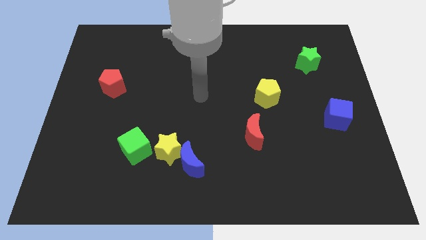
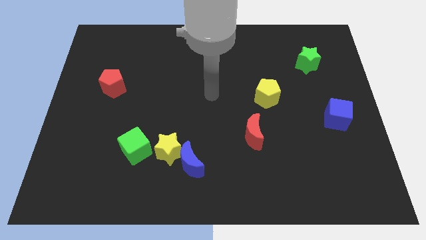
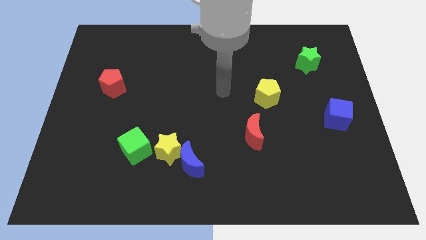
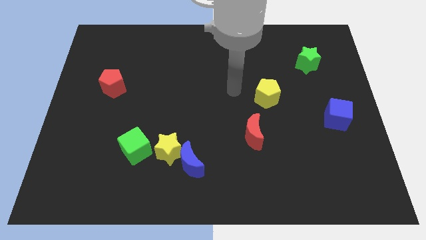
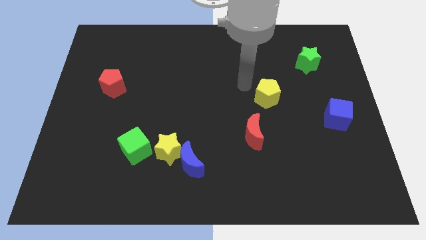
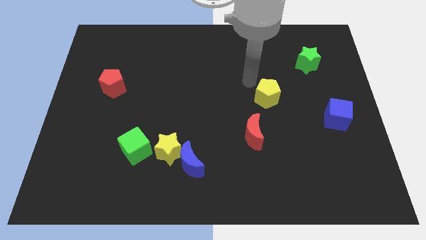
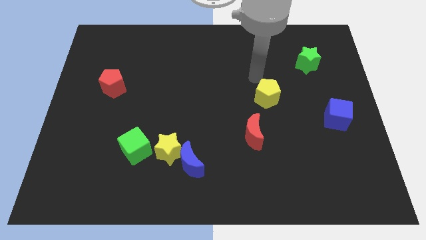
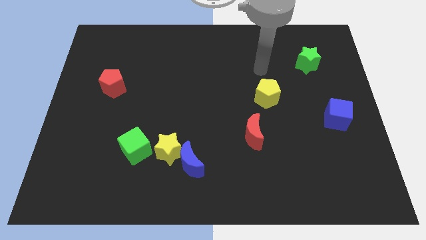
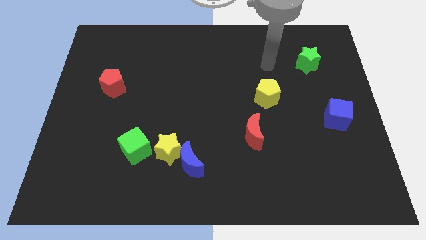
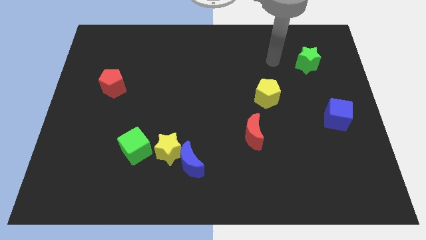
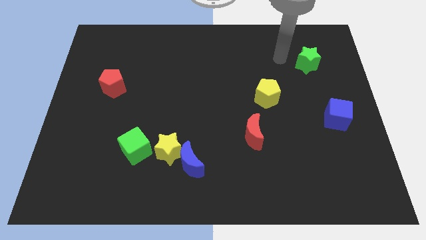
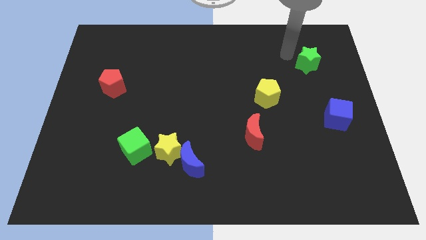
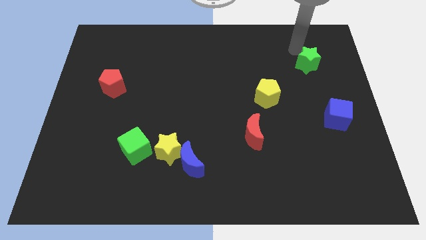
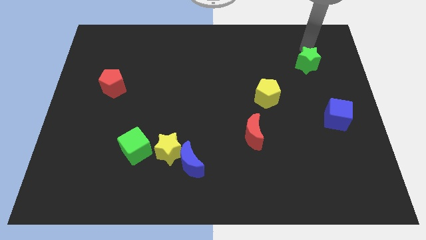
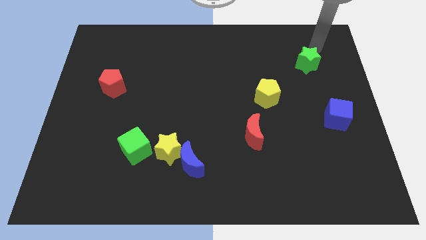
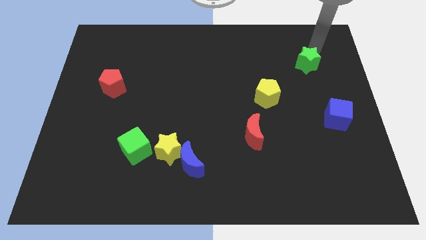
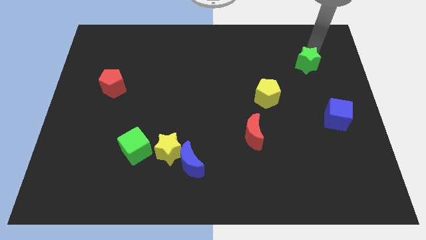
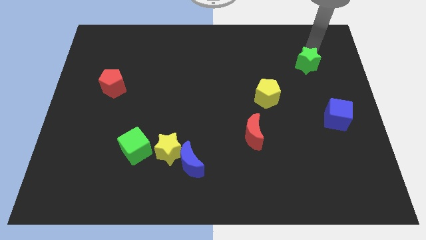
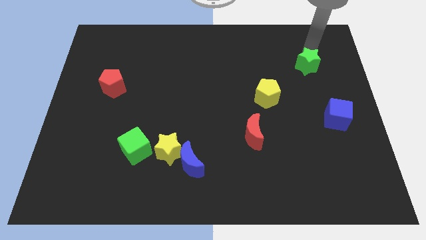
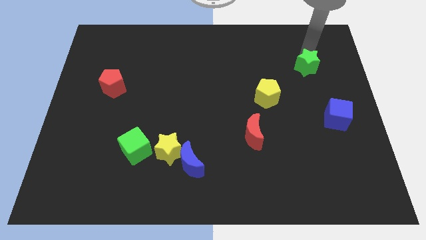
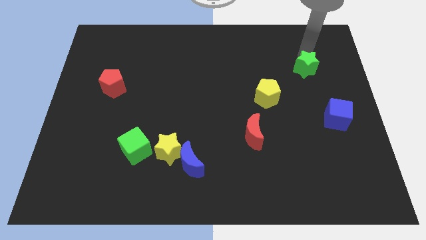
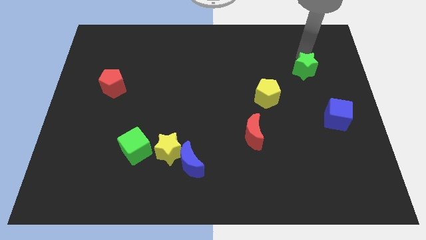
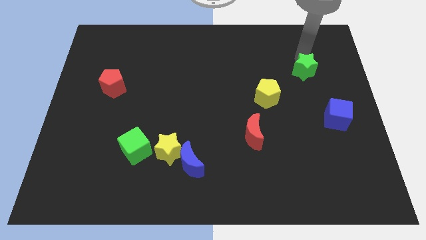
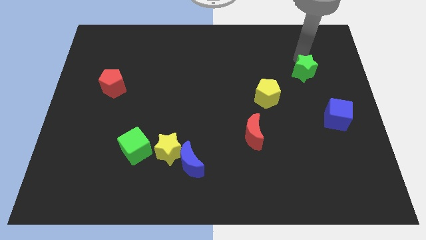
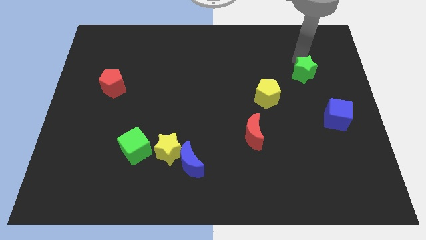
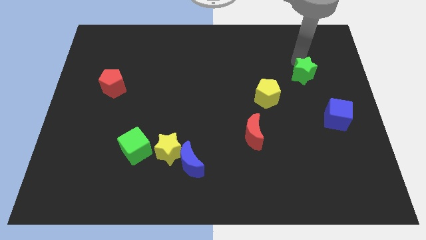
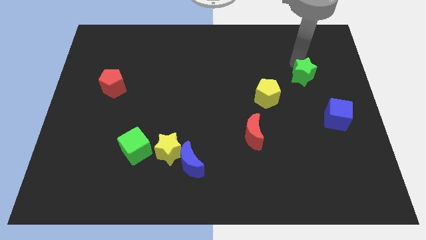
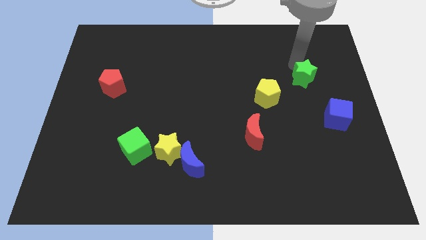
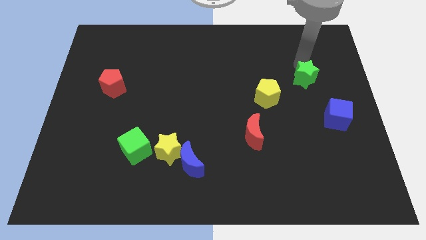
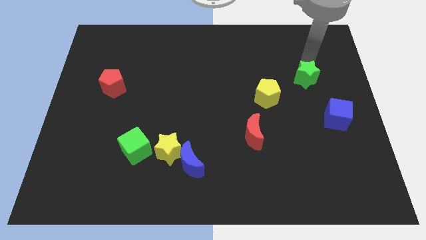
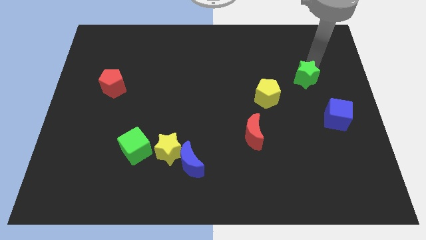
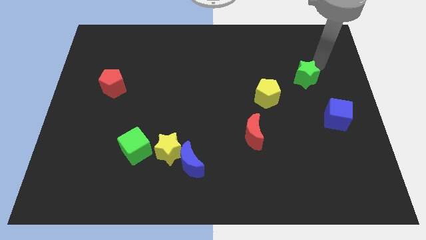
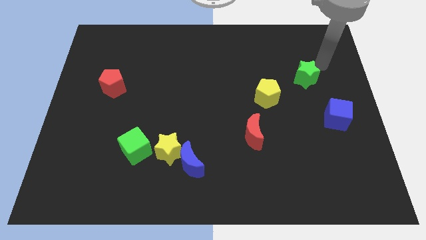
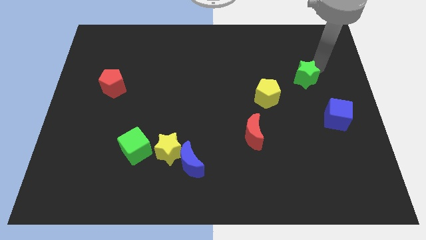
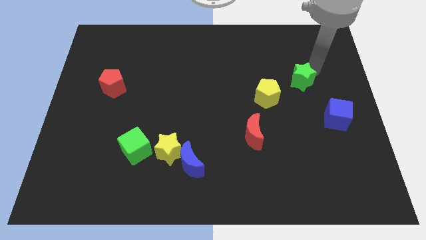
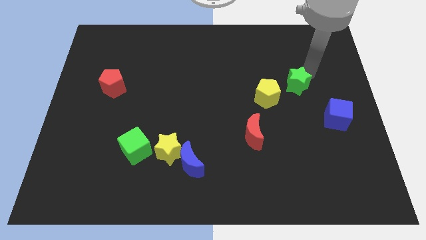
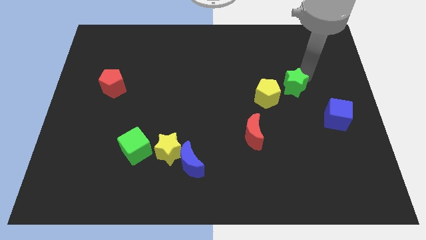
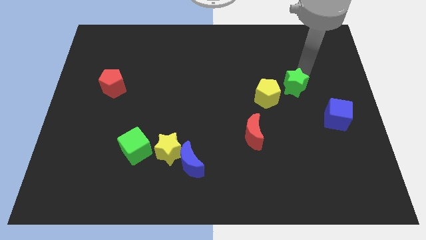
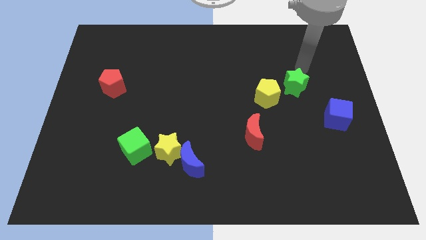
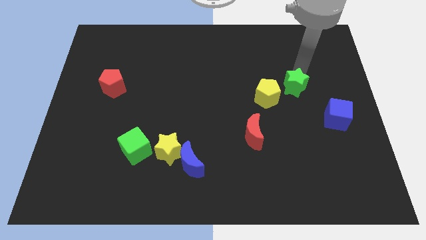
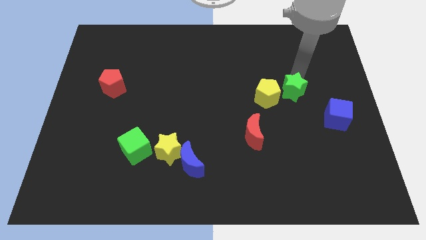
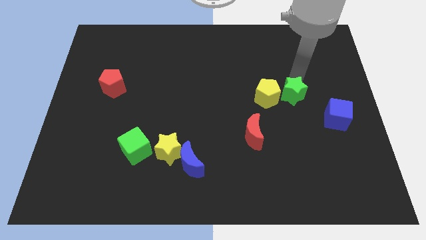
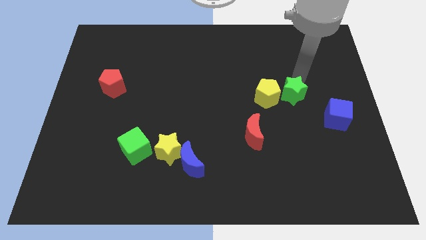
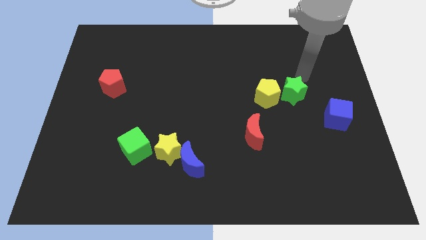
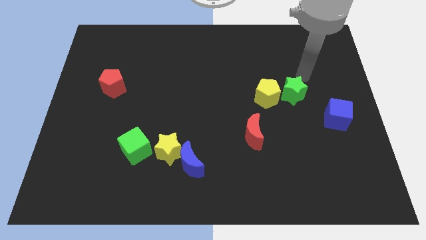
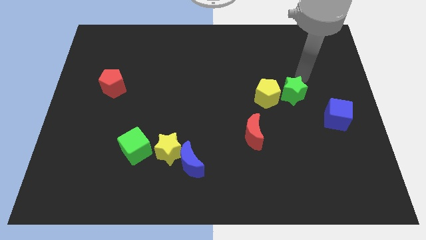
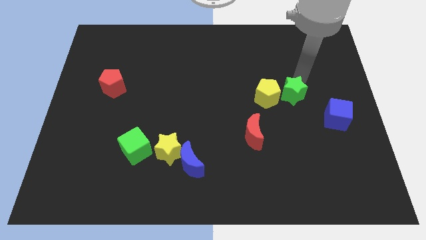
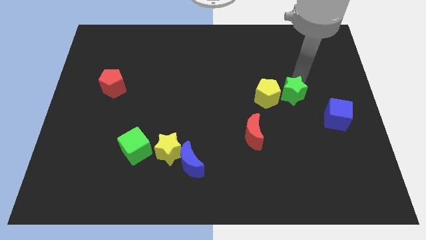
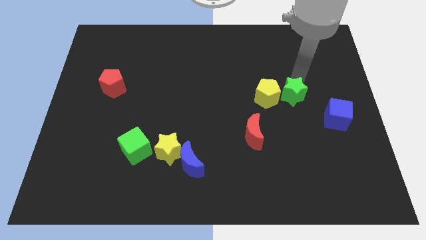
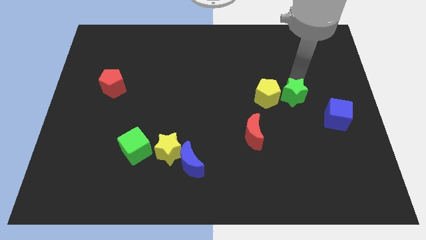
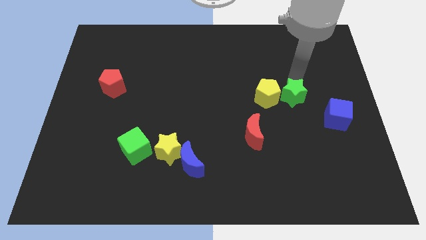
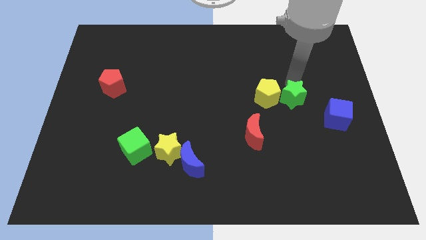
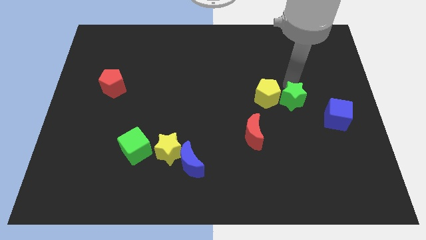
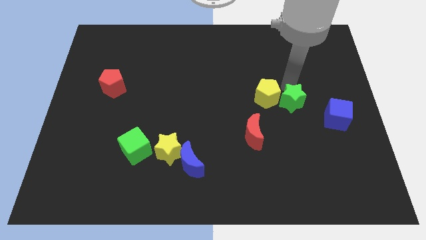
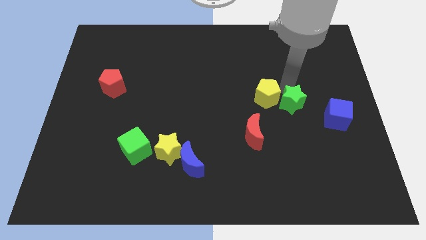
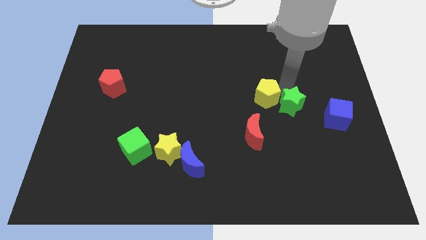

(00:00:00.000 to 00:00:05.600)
slide the green star to the top right side of the red moon

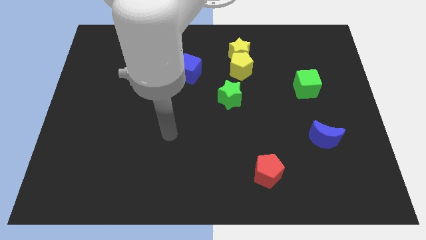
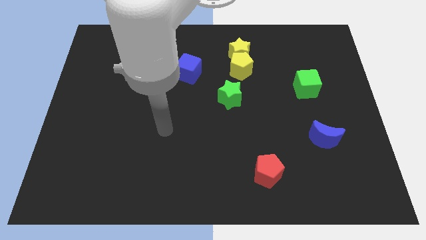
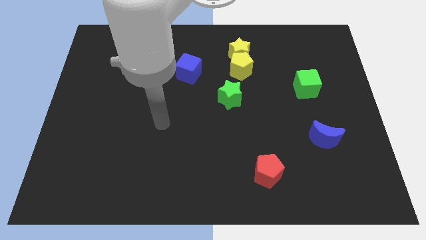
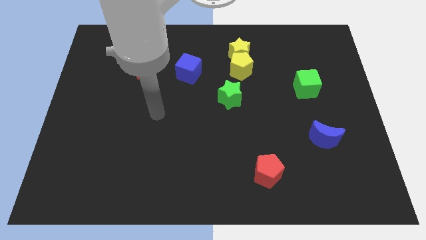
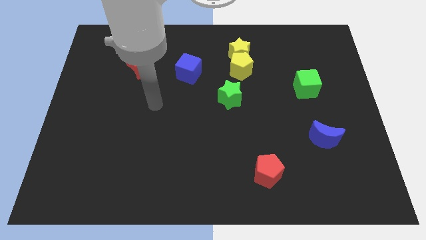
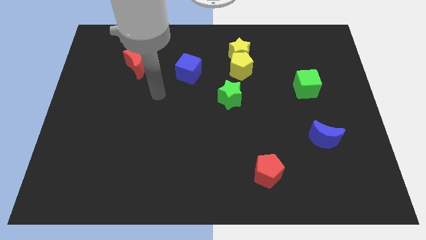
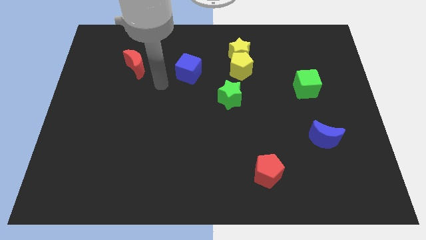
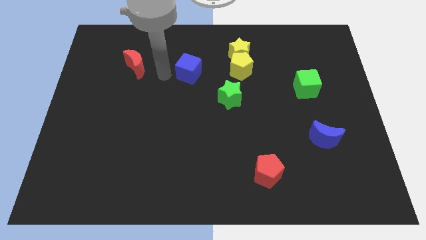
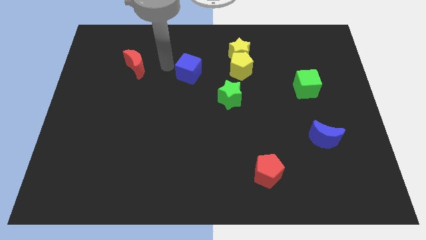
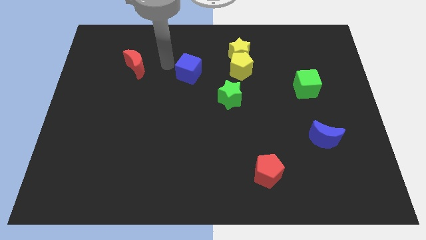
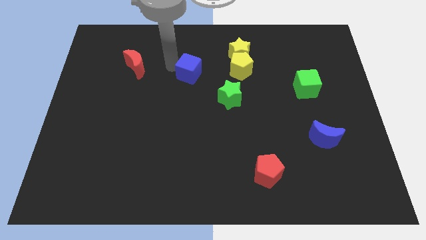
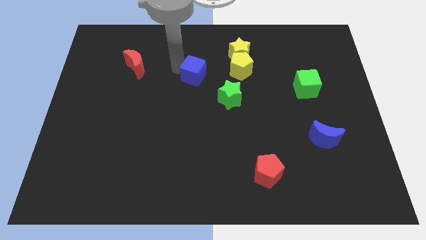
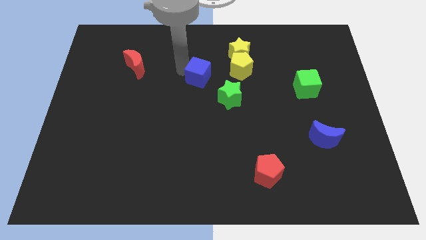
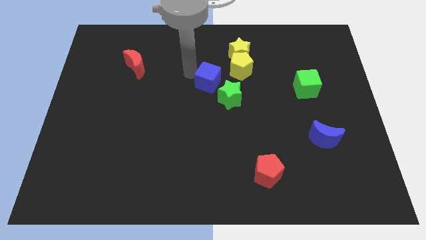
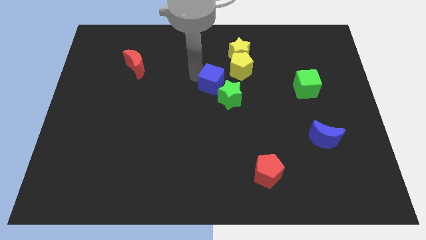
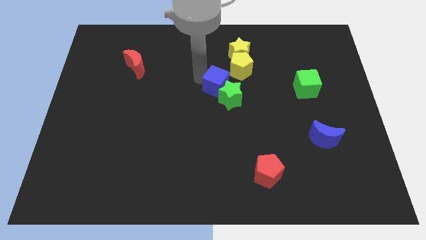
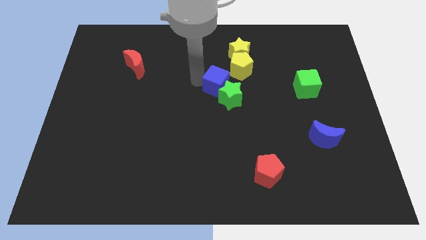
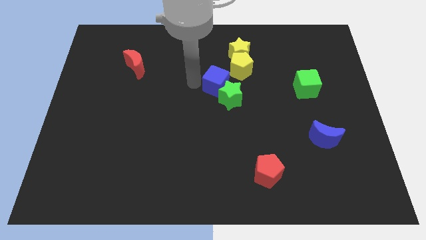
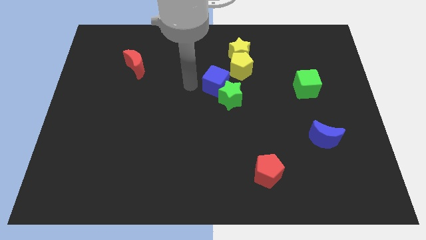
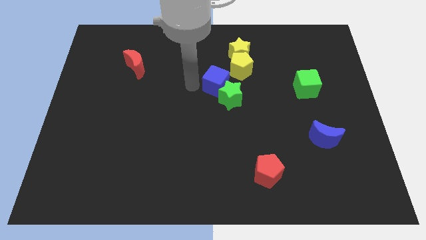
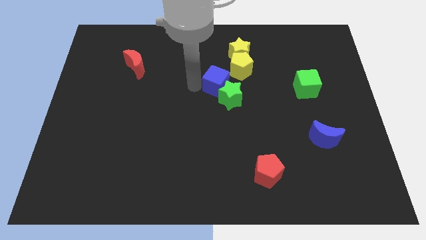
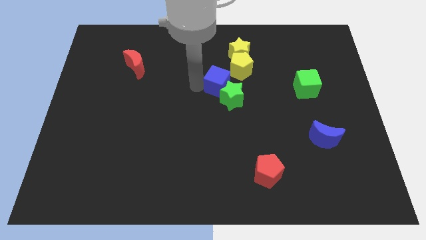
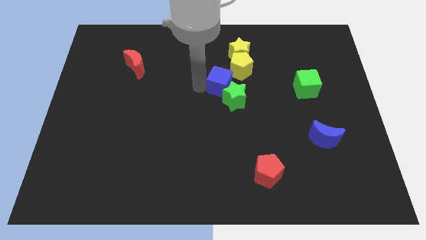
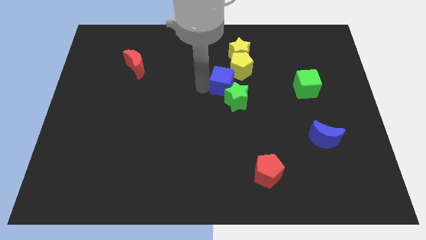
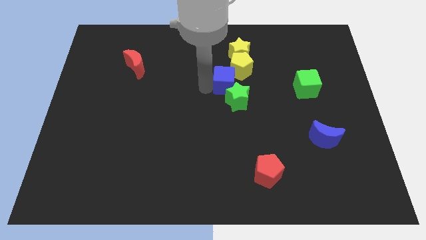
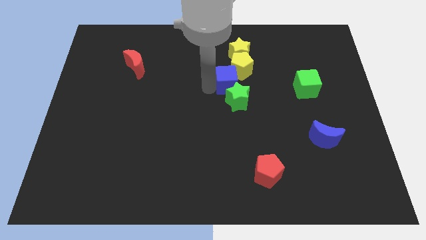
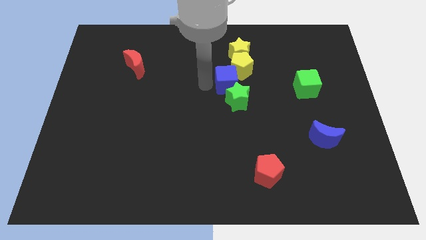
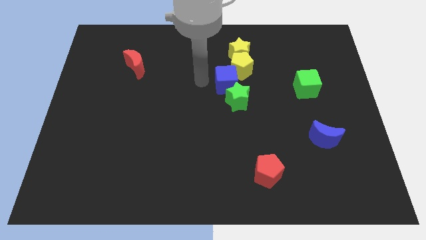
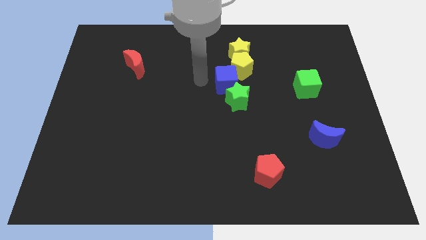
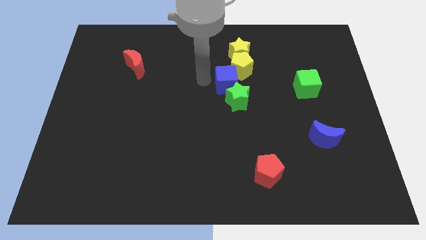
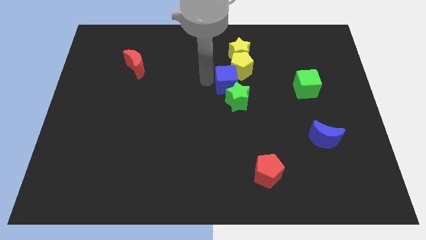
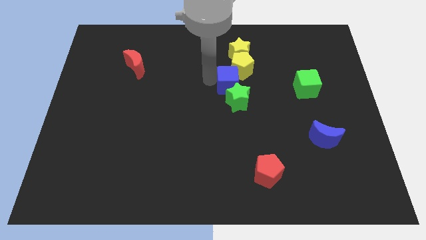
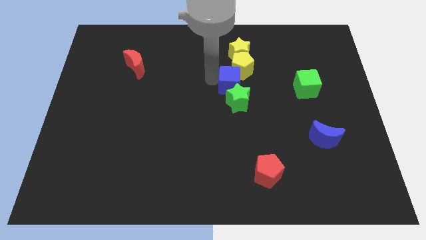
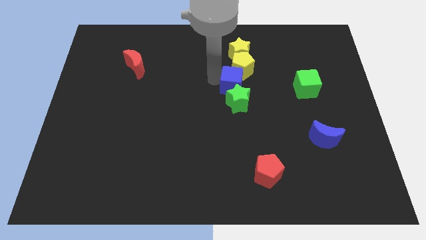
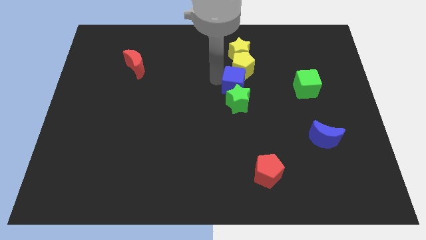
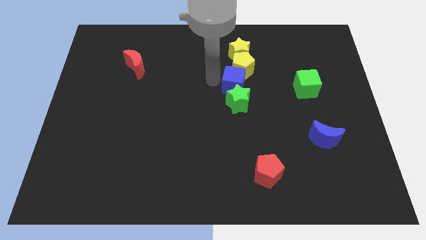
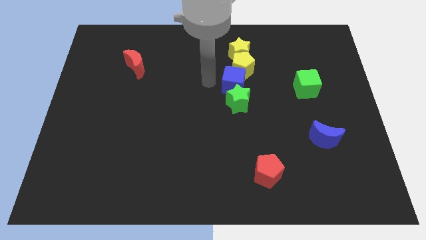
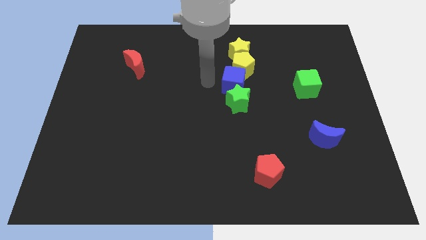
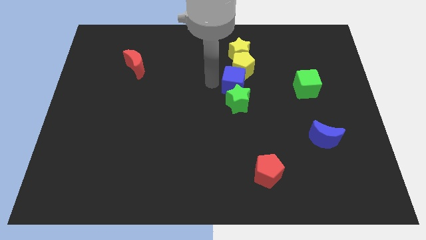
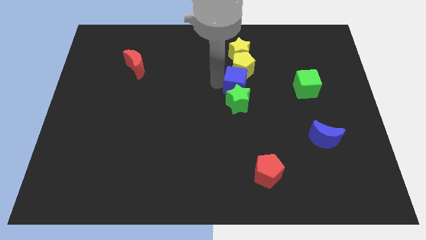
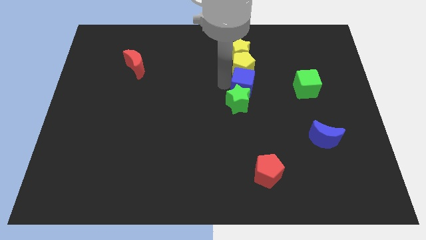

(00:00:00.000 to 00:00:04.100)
push the blue cube just left of the green cube
